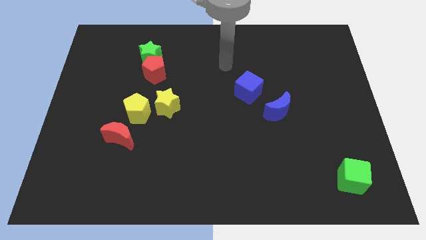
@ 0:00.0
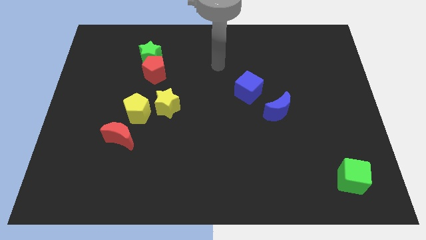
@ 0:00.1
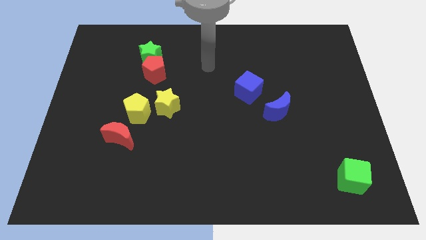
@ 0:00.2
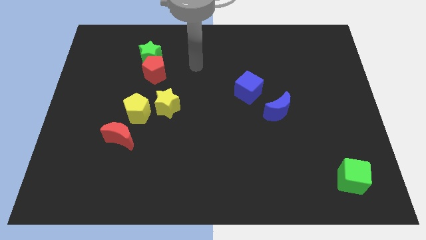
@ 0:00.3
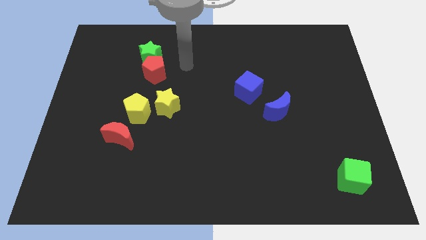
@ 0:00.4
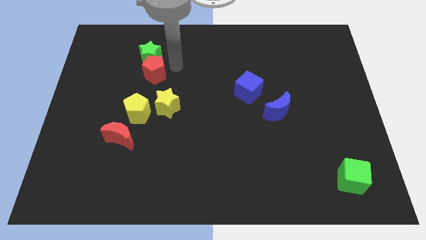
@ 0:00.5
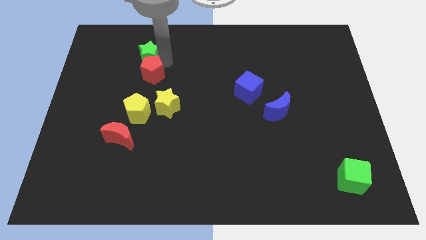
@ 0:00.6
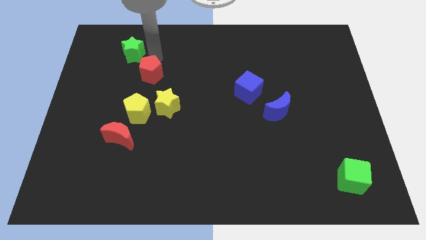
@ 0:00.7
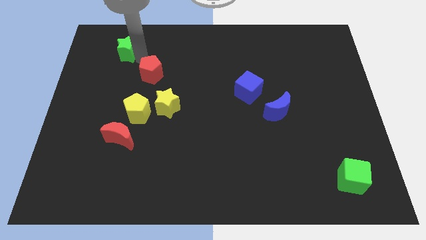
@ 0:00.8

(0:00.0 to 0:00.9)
move the red pentagon away from the green star

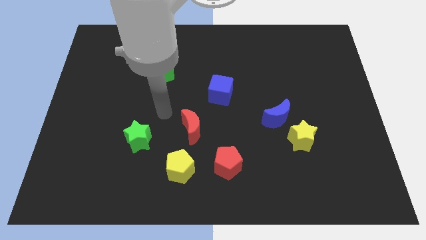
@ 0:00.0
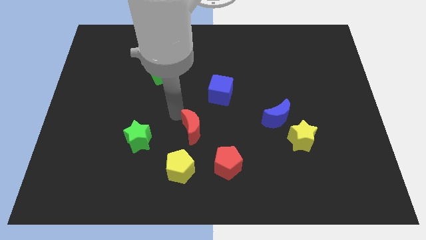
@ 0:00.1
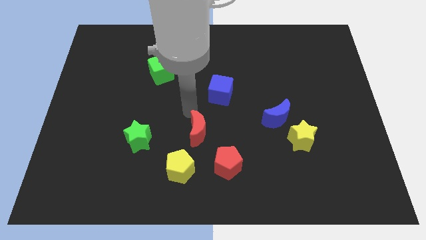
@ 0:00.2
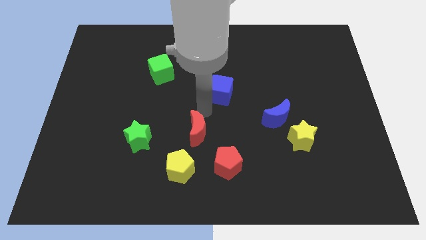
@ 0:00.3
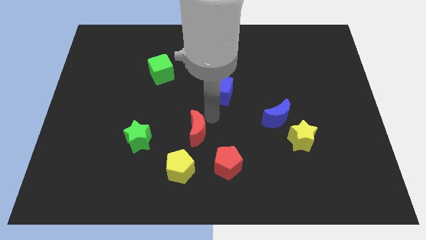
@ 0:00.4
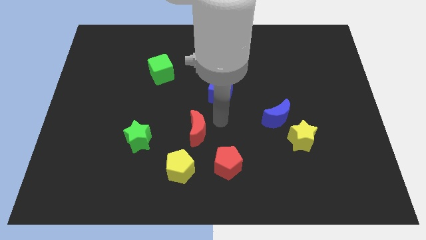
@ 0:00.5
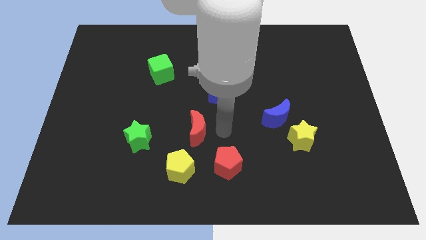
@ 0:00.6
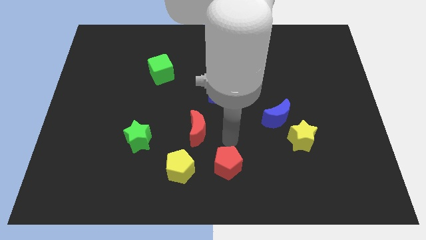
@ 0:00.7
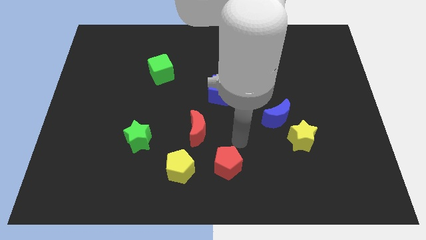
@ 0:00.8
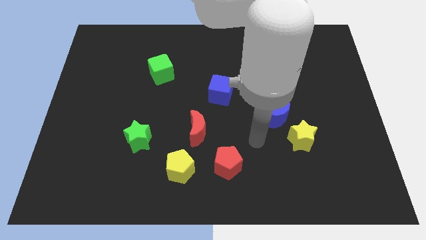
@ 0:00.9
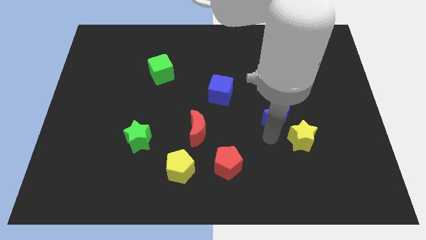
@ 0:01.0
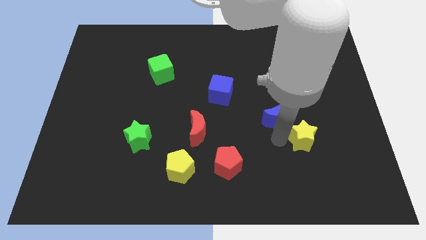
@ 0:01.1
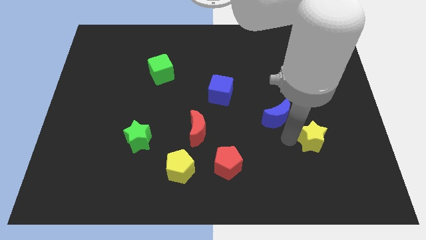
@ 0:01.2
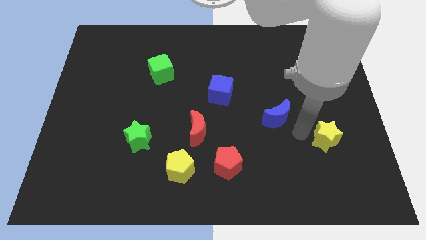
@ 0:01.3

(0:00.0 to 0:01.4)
pull the blue moon apart from the yellow star

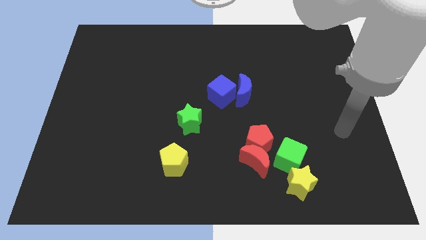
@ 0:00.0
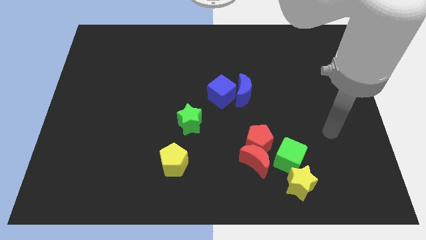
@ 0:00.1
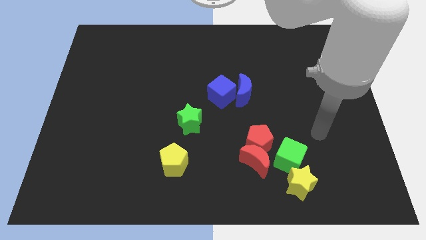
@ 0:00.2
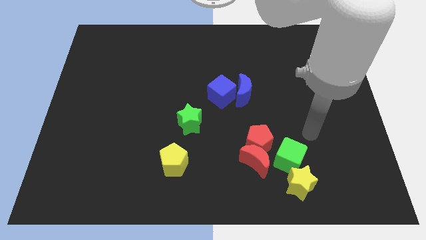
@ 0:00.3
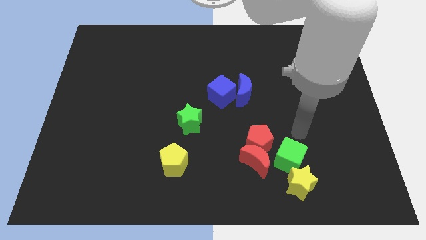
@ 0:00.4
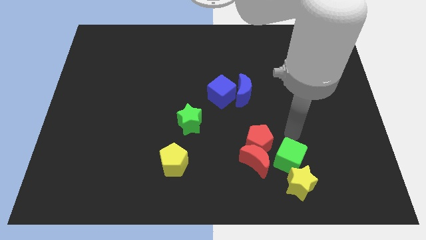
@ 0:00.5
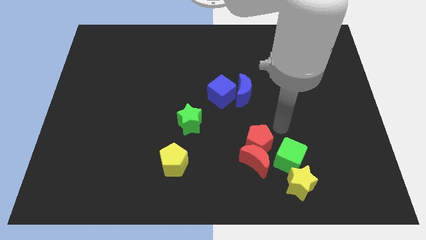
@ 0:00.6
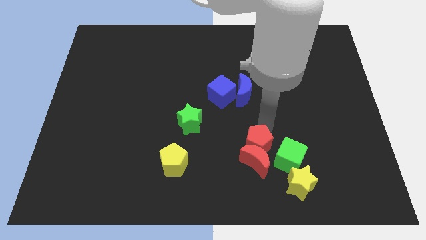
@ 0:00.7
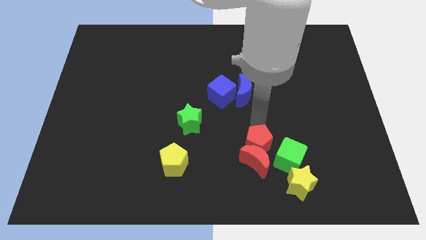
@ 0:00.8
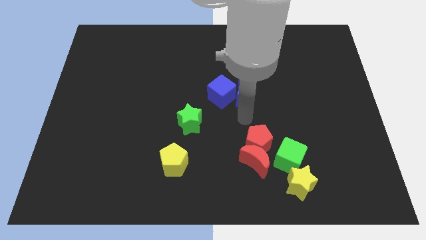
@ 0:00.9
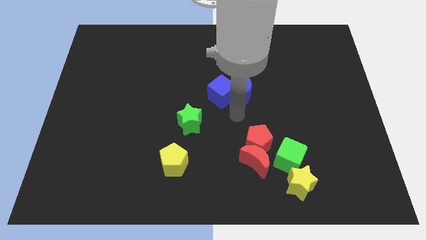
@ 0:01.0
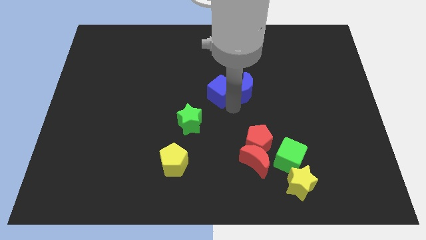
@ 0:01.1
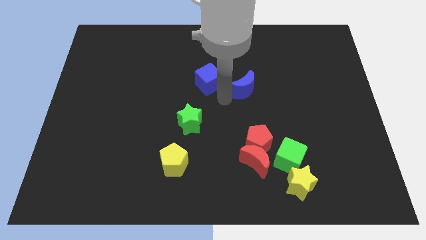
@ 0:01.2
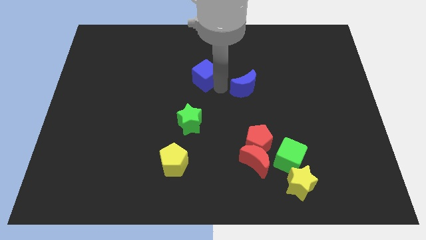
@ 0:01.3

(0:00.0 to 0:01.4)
separate the blue moon from the blue cube

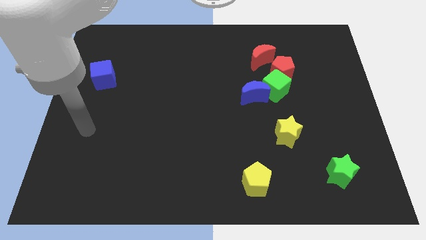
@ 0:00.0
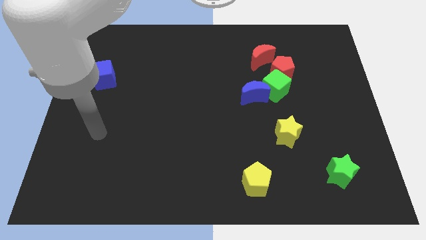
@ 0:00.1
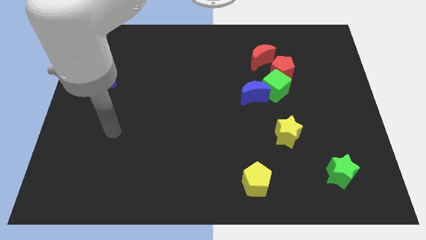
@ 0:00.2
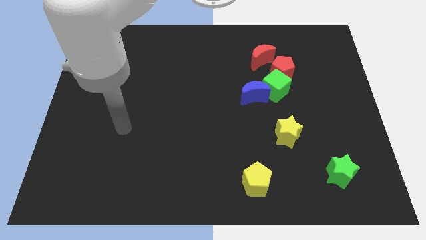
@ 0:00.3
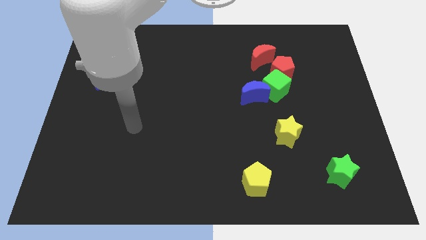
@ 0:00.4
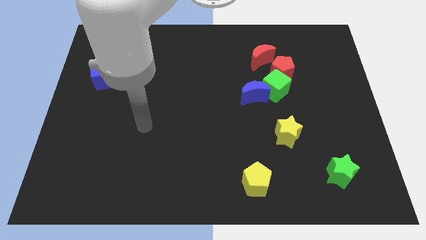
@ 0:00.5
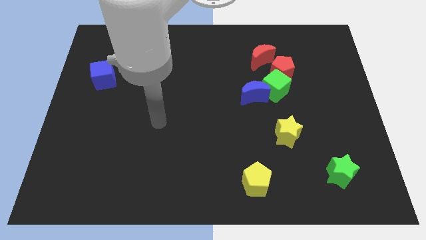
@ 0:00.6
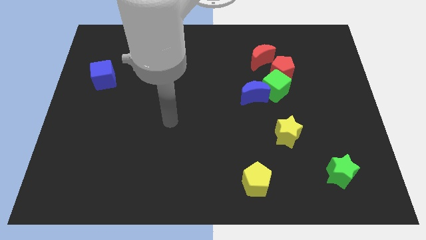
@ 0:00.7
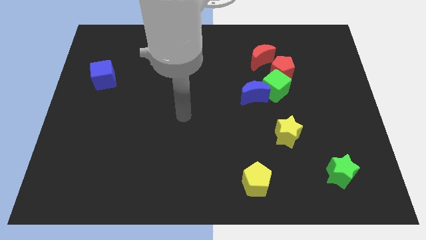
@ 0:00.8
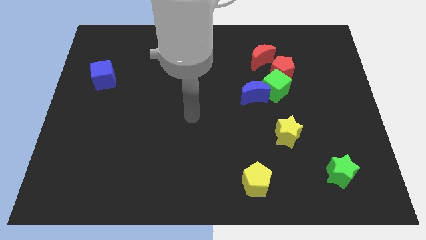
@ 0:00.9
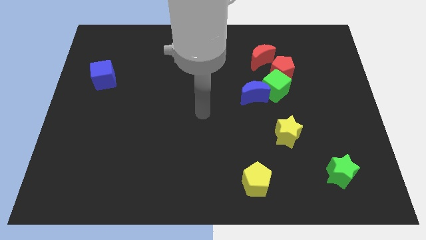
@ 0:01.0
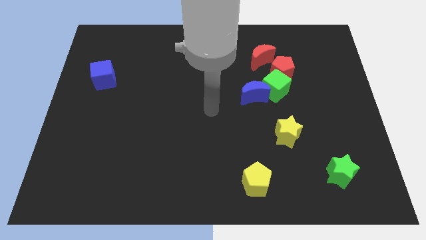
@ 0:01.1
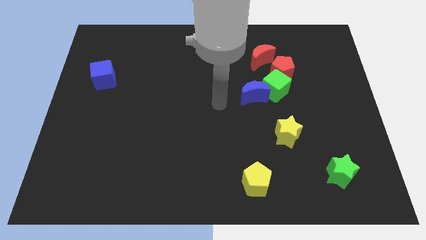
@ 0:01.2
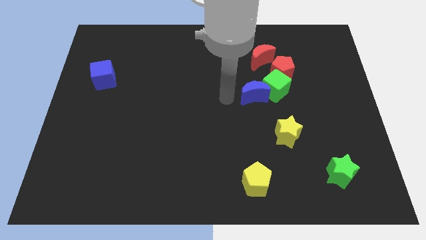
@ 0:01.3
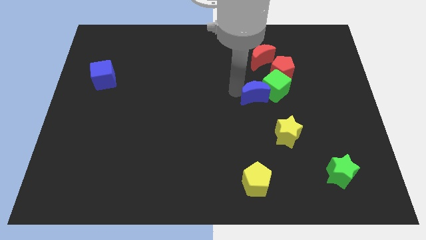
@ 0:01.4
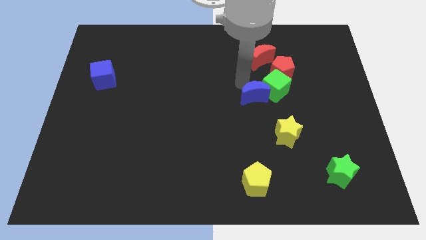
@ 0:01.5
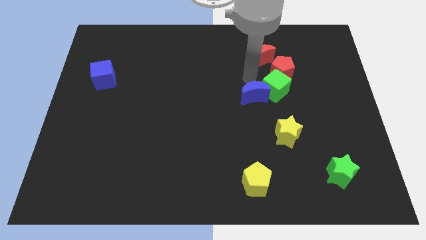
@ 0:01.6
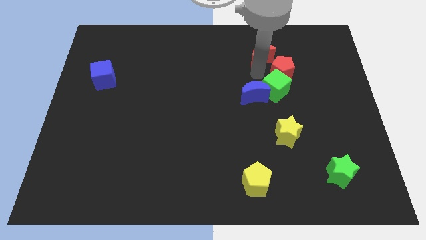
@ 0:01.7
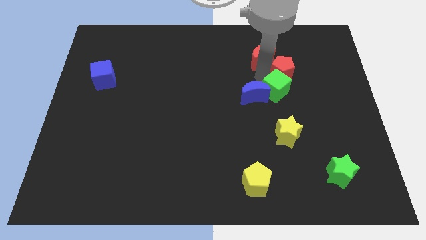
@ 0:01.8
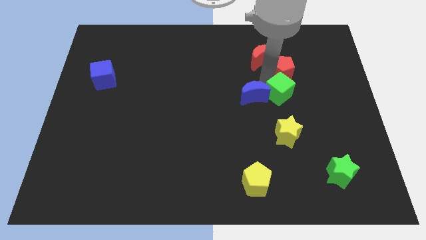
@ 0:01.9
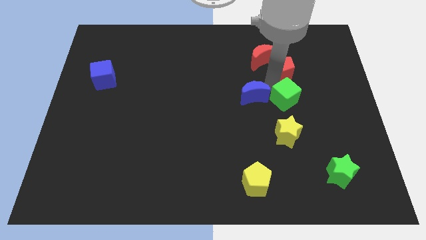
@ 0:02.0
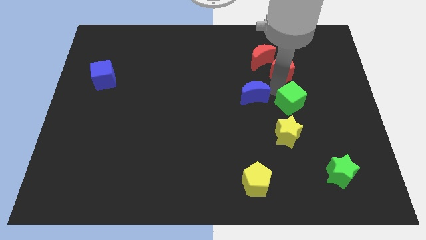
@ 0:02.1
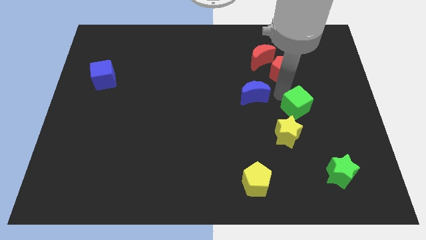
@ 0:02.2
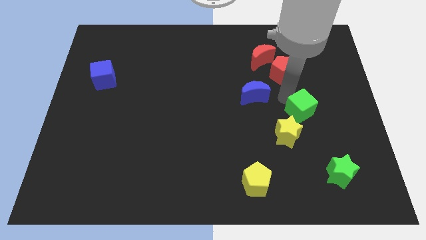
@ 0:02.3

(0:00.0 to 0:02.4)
pull the green cube apart from the red pentagon and blue moon

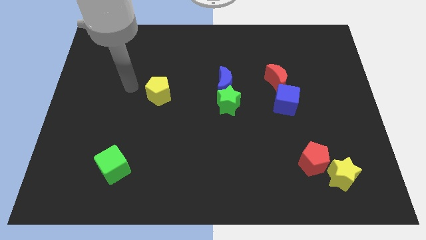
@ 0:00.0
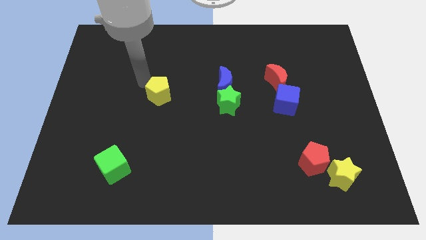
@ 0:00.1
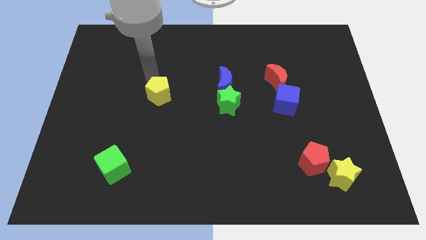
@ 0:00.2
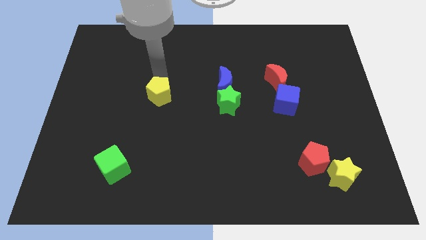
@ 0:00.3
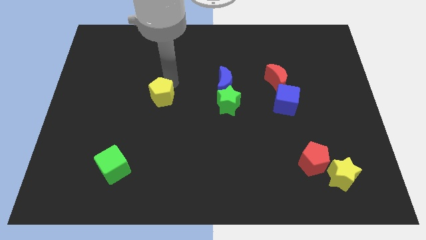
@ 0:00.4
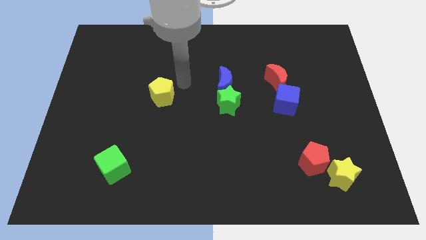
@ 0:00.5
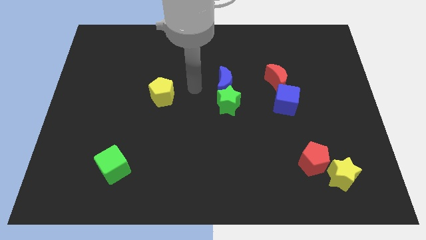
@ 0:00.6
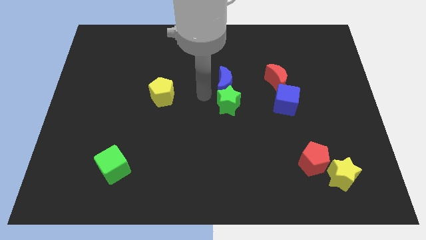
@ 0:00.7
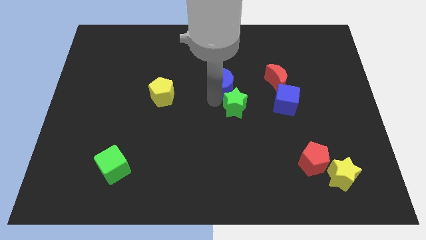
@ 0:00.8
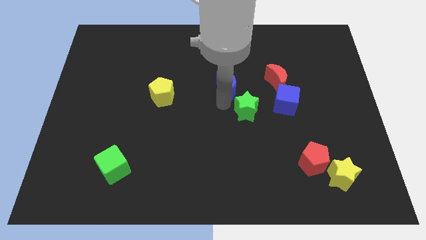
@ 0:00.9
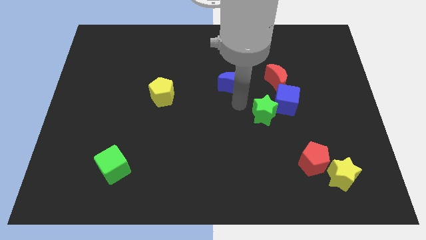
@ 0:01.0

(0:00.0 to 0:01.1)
move the blue moon away from the green star

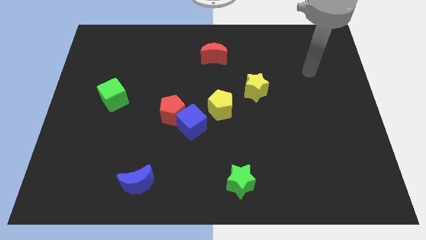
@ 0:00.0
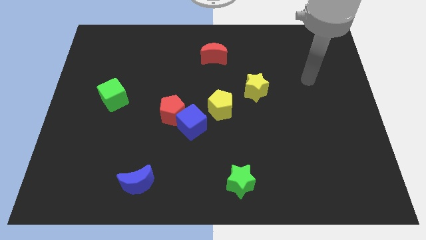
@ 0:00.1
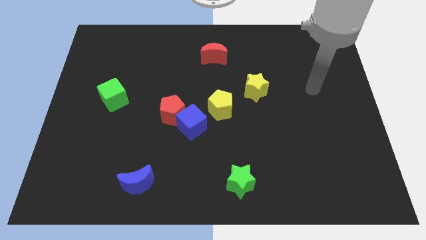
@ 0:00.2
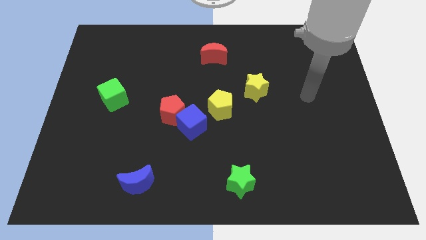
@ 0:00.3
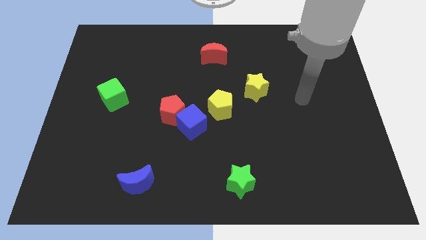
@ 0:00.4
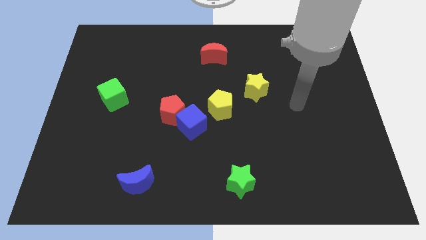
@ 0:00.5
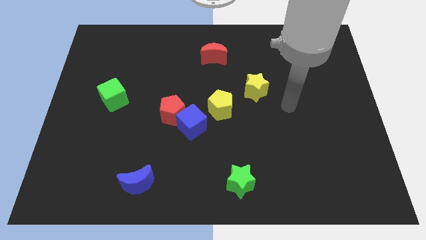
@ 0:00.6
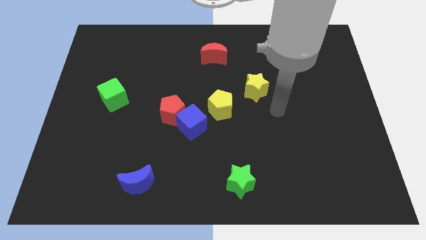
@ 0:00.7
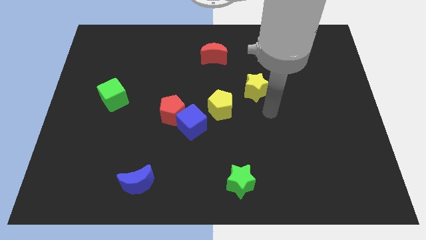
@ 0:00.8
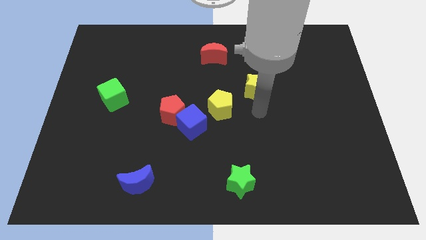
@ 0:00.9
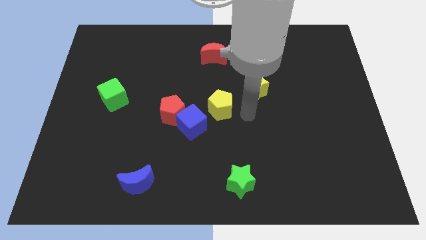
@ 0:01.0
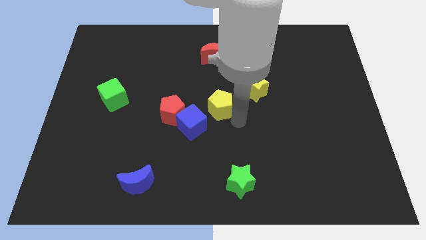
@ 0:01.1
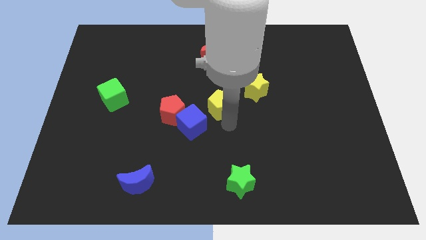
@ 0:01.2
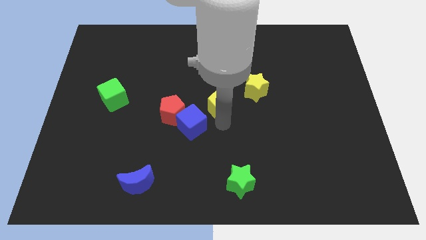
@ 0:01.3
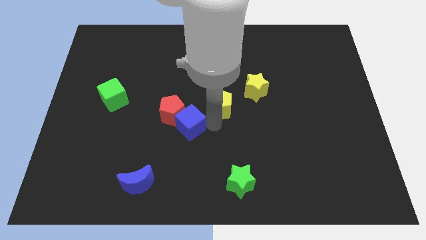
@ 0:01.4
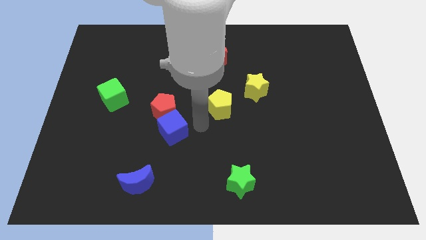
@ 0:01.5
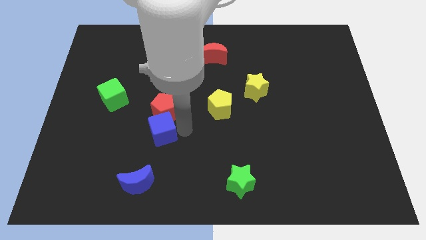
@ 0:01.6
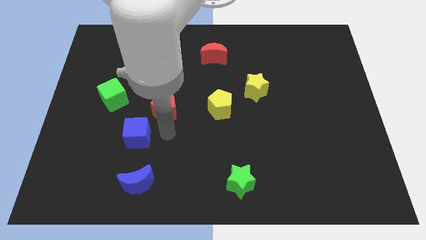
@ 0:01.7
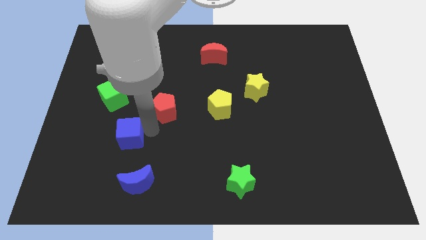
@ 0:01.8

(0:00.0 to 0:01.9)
pull the red pentagon apart from the blue cube

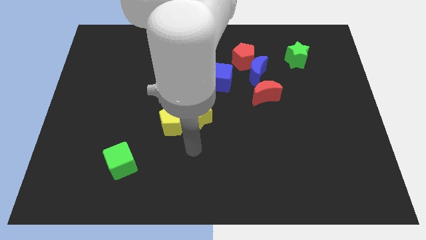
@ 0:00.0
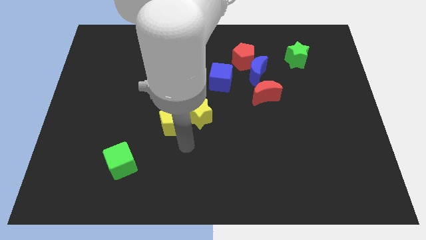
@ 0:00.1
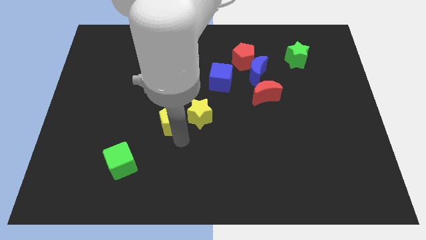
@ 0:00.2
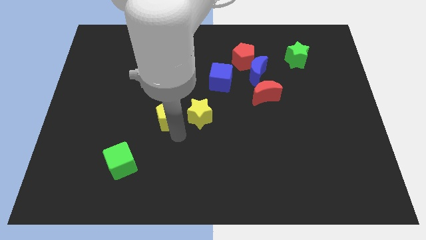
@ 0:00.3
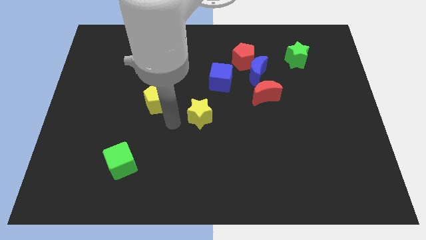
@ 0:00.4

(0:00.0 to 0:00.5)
separate the yellow star from the yellow pentagon
